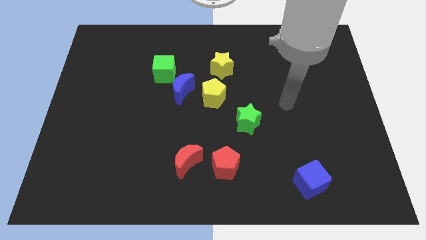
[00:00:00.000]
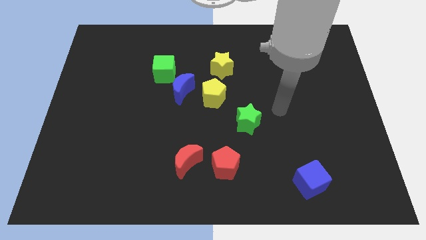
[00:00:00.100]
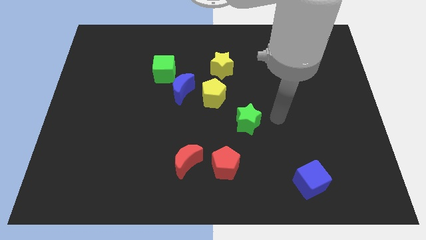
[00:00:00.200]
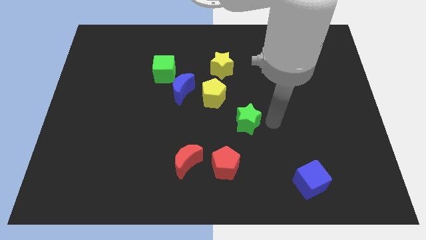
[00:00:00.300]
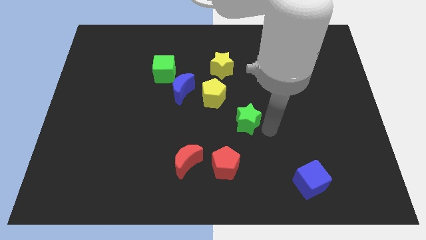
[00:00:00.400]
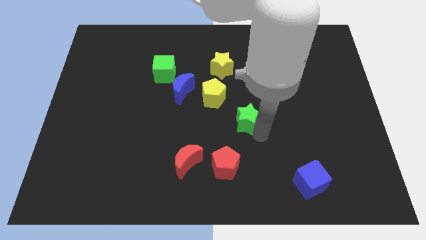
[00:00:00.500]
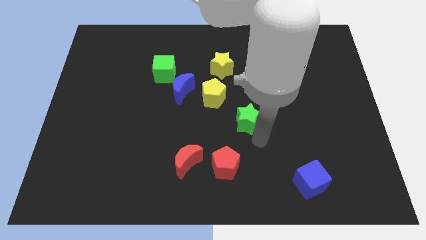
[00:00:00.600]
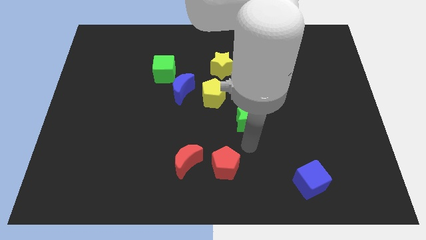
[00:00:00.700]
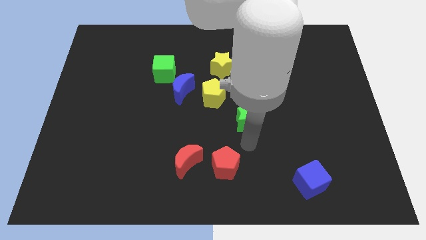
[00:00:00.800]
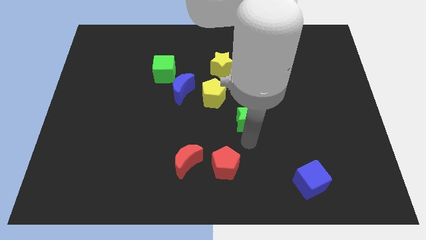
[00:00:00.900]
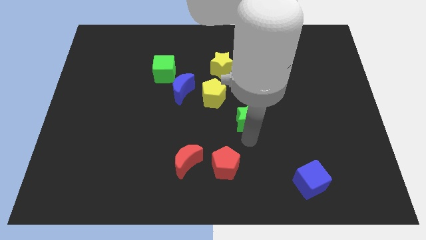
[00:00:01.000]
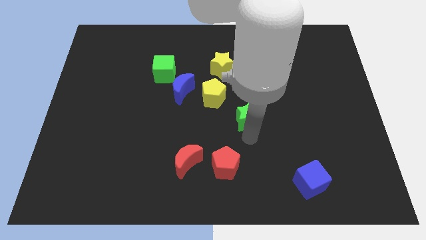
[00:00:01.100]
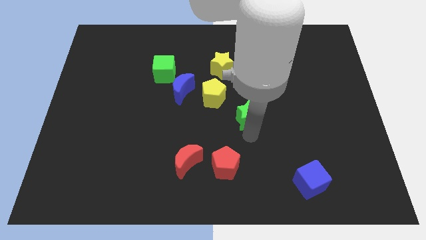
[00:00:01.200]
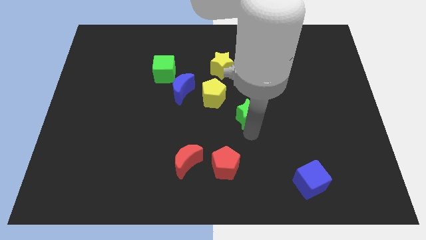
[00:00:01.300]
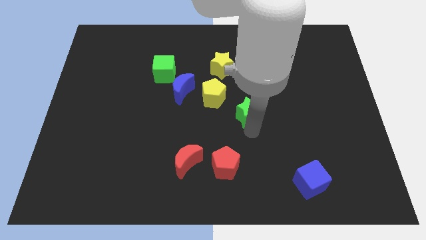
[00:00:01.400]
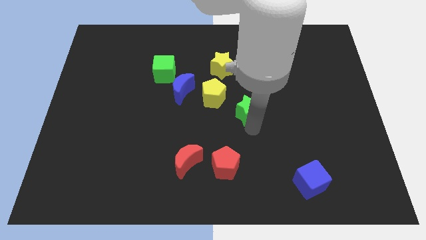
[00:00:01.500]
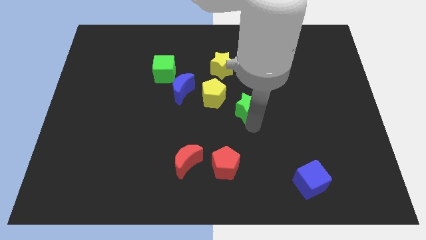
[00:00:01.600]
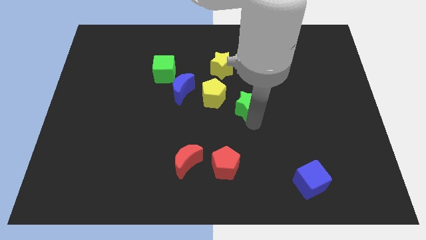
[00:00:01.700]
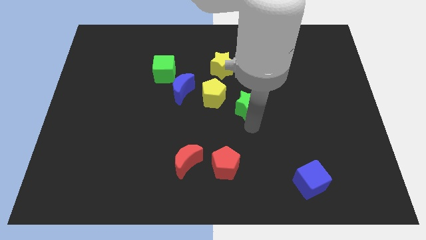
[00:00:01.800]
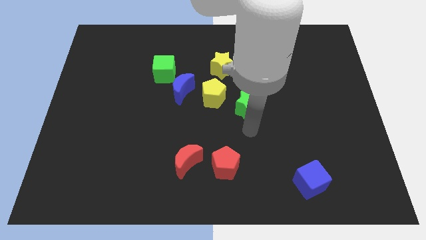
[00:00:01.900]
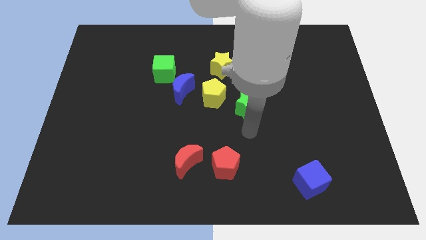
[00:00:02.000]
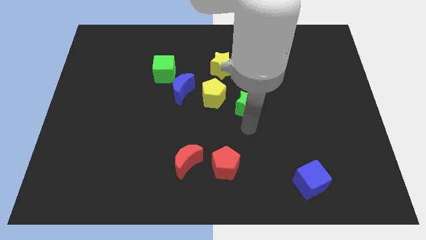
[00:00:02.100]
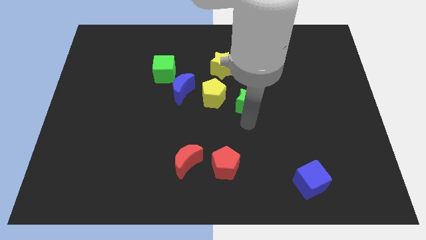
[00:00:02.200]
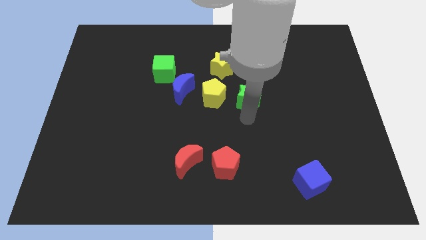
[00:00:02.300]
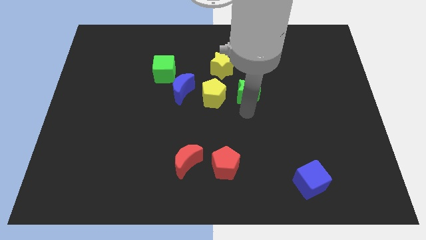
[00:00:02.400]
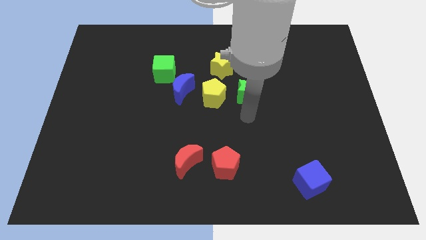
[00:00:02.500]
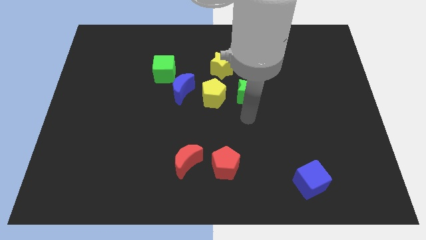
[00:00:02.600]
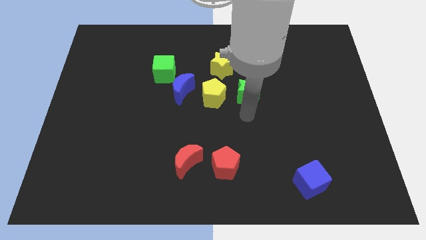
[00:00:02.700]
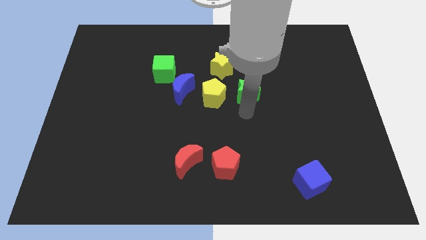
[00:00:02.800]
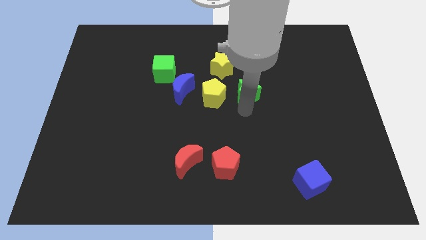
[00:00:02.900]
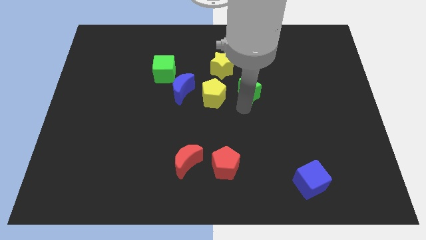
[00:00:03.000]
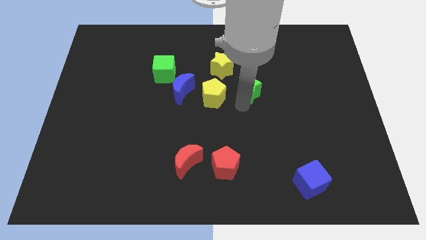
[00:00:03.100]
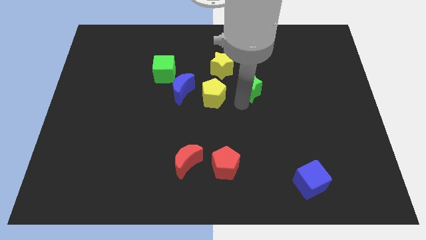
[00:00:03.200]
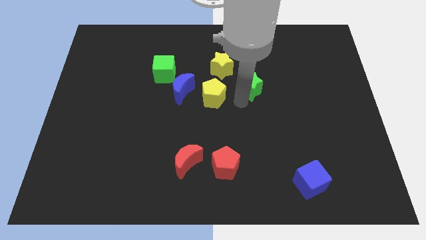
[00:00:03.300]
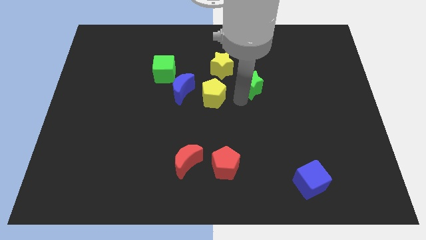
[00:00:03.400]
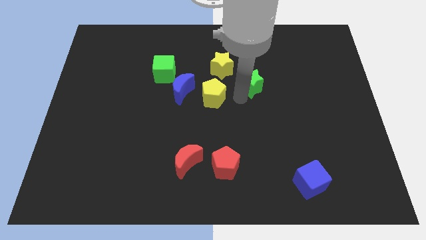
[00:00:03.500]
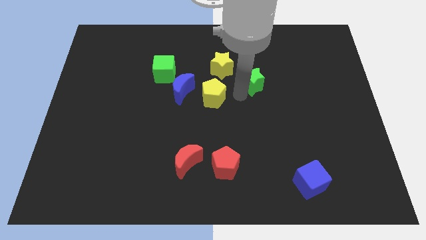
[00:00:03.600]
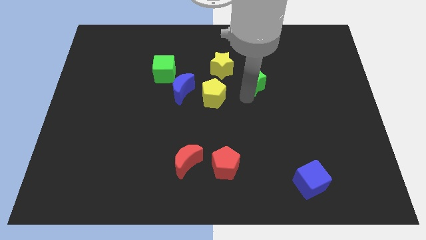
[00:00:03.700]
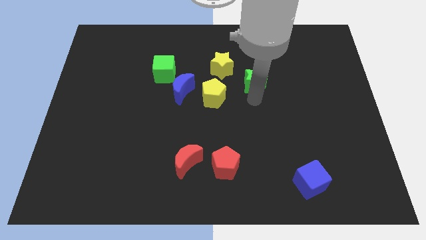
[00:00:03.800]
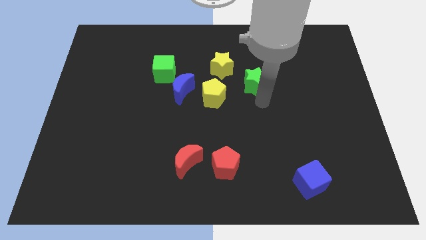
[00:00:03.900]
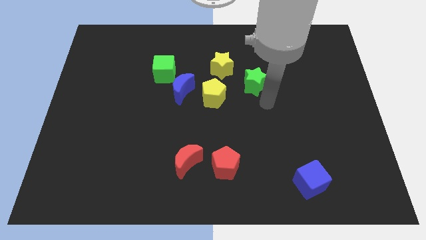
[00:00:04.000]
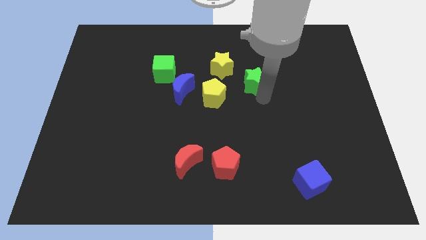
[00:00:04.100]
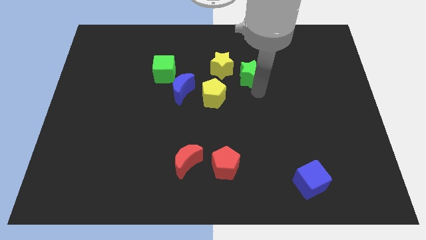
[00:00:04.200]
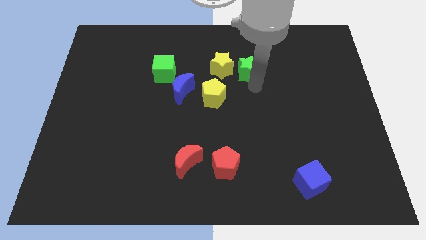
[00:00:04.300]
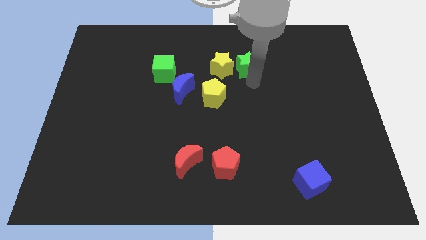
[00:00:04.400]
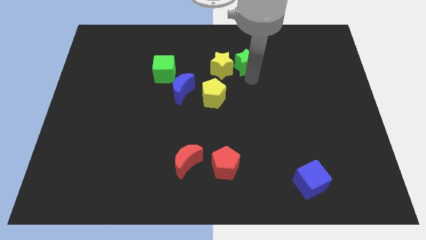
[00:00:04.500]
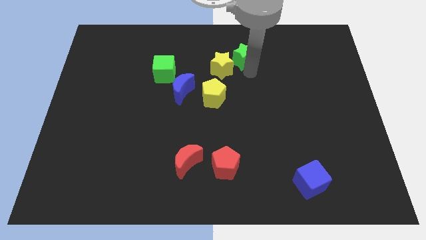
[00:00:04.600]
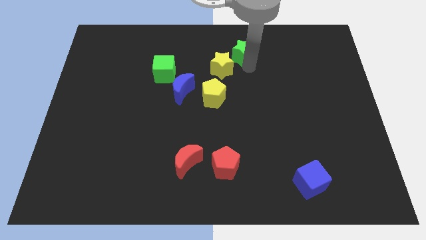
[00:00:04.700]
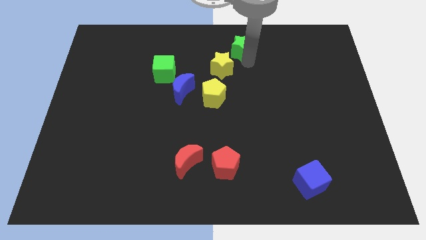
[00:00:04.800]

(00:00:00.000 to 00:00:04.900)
put the green star to the towards your base

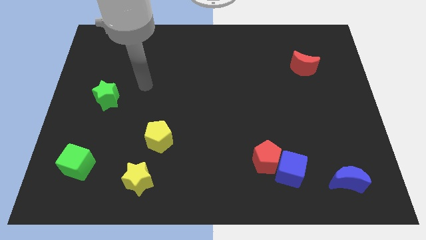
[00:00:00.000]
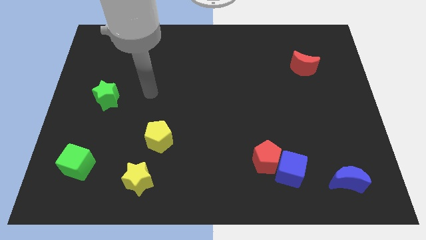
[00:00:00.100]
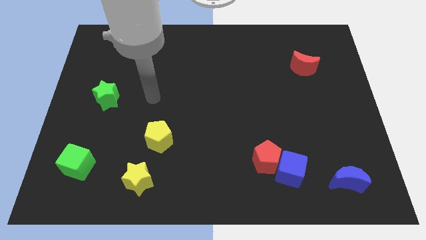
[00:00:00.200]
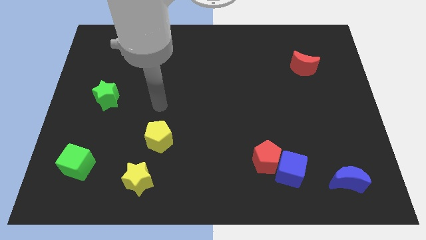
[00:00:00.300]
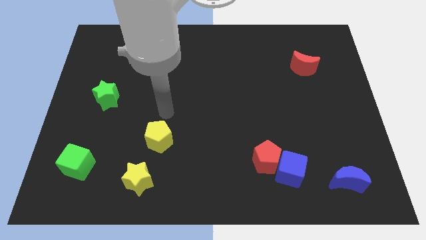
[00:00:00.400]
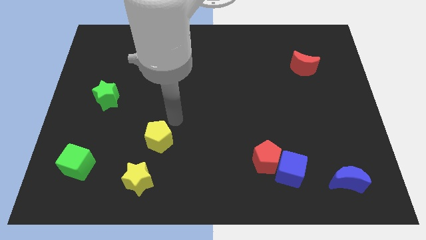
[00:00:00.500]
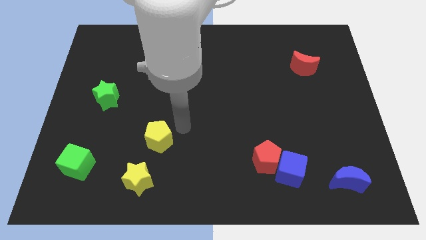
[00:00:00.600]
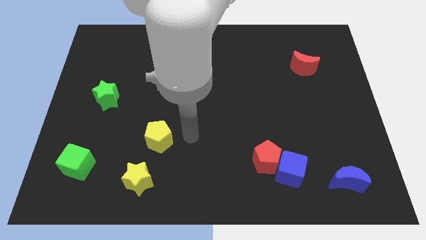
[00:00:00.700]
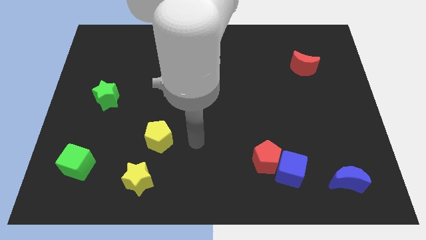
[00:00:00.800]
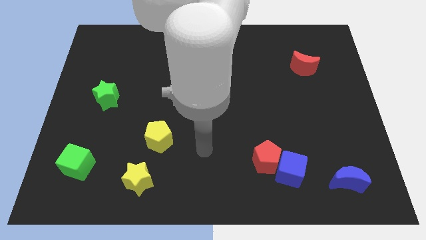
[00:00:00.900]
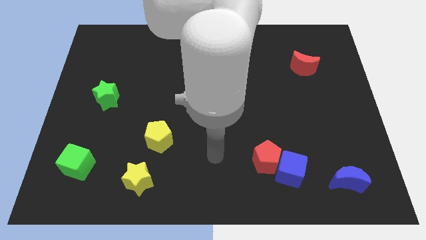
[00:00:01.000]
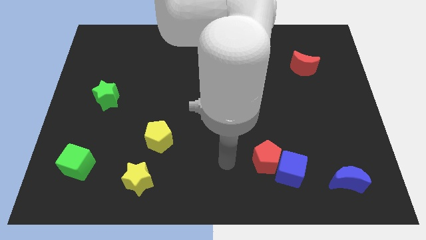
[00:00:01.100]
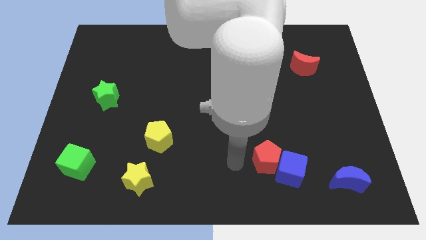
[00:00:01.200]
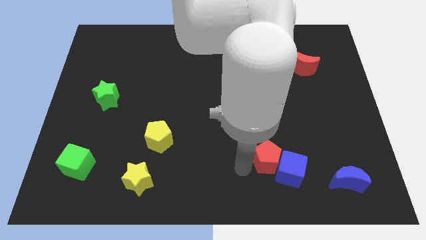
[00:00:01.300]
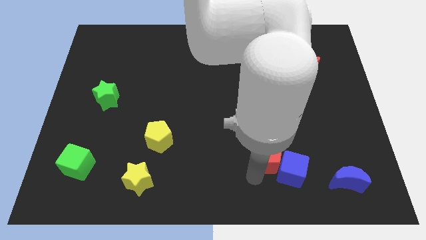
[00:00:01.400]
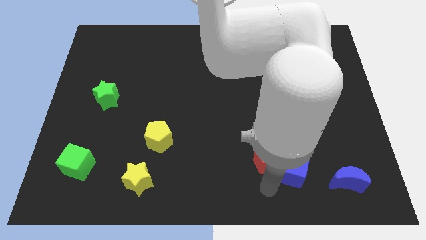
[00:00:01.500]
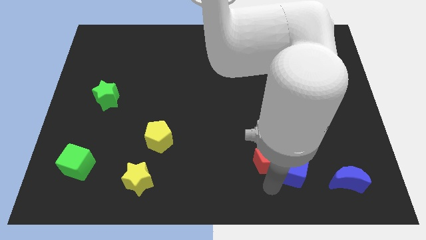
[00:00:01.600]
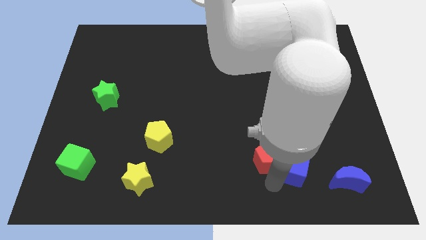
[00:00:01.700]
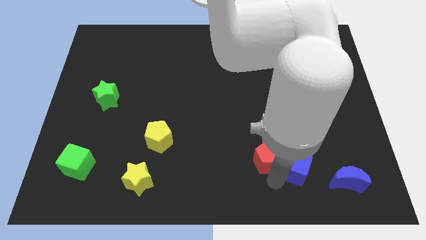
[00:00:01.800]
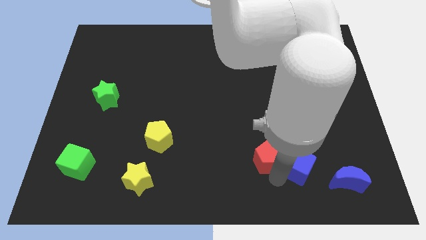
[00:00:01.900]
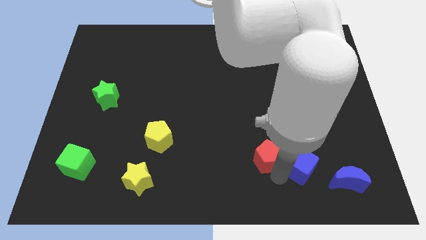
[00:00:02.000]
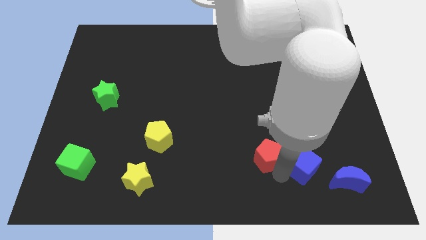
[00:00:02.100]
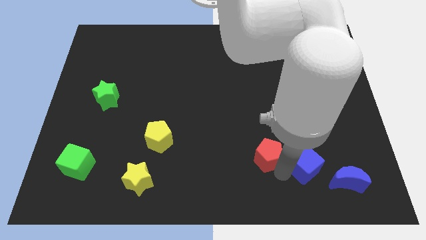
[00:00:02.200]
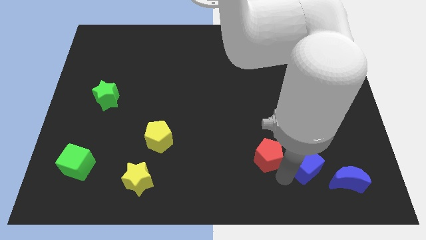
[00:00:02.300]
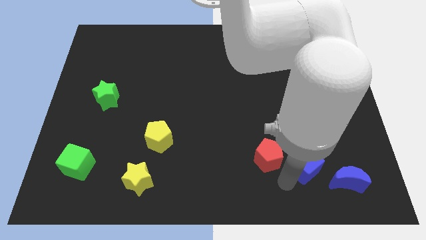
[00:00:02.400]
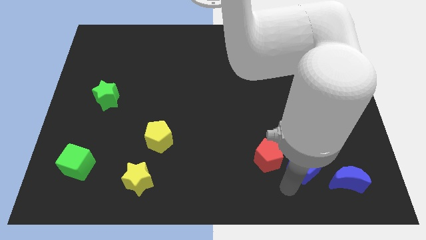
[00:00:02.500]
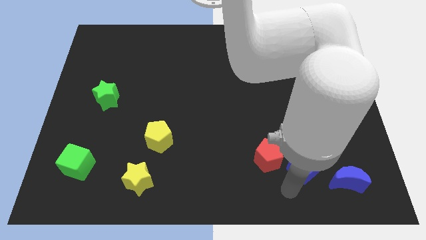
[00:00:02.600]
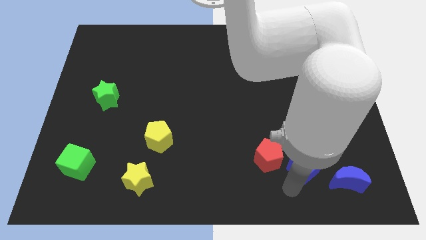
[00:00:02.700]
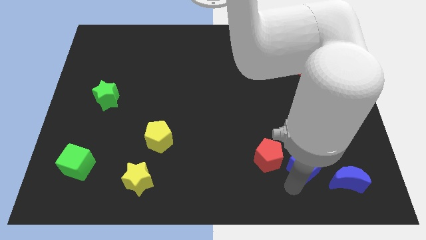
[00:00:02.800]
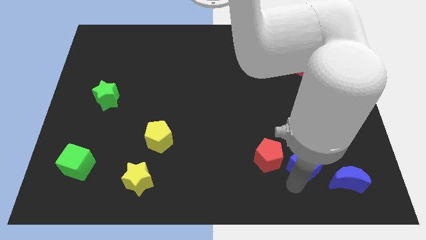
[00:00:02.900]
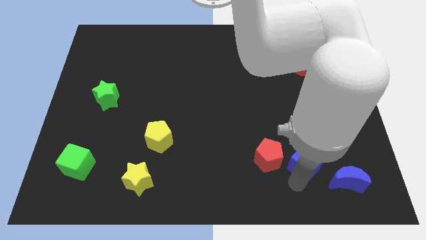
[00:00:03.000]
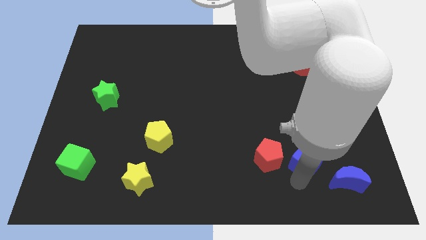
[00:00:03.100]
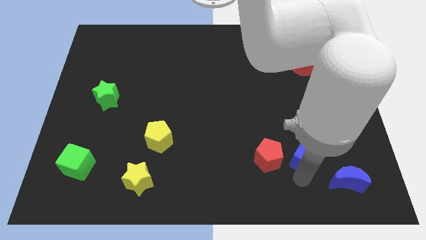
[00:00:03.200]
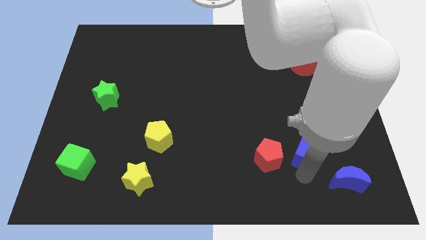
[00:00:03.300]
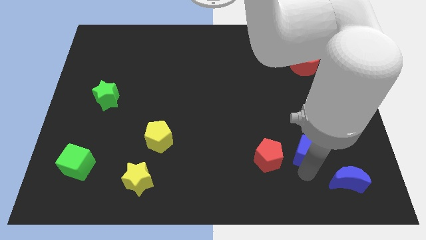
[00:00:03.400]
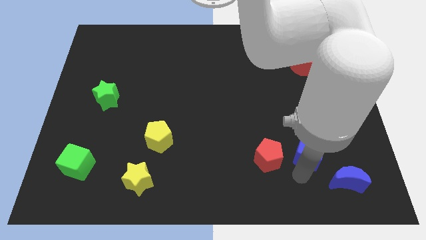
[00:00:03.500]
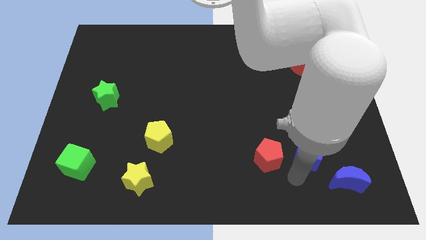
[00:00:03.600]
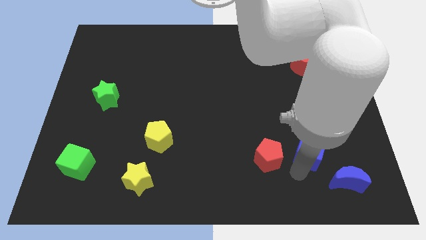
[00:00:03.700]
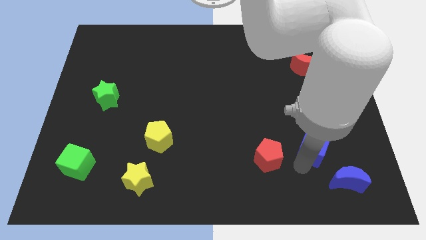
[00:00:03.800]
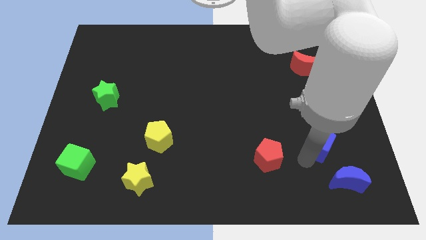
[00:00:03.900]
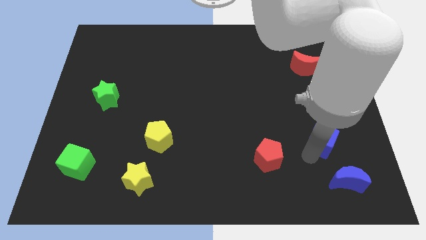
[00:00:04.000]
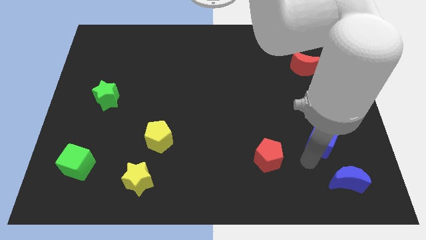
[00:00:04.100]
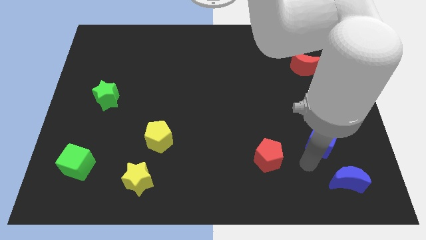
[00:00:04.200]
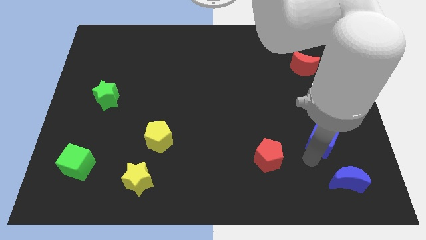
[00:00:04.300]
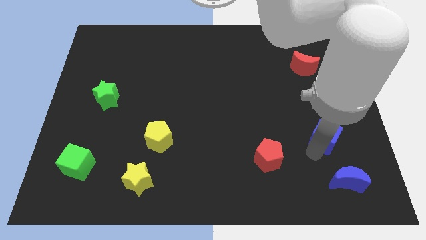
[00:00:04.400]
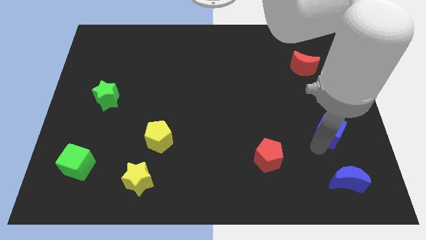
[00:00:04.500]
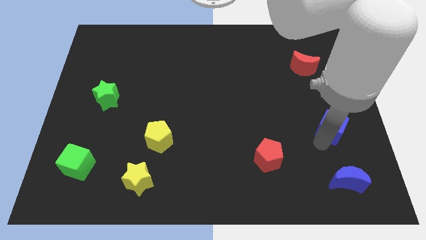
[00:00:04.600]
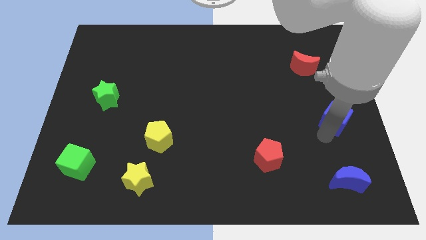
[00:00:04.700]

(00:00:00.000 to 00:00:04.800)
slide the blue cube to the right side
